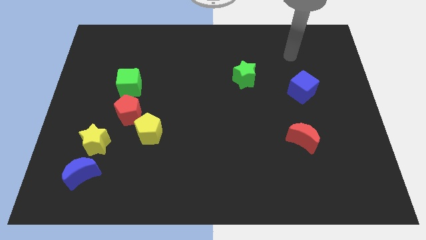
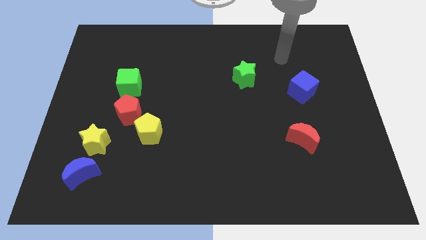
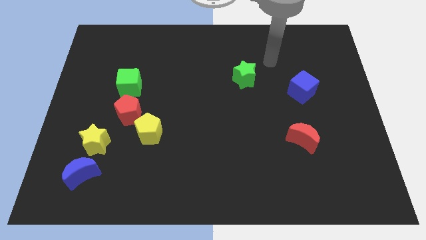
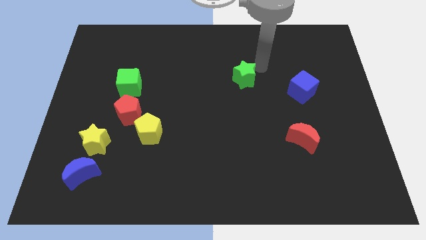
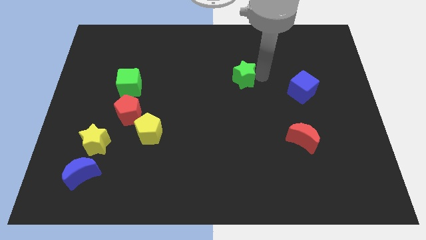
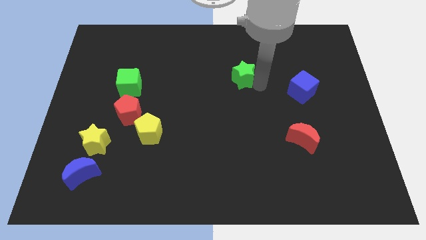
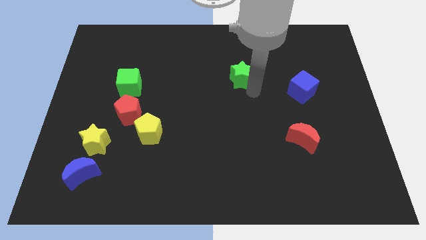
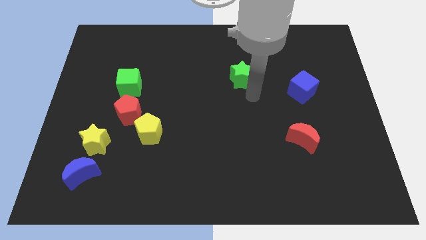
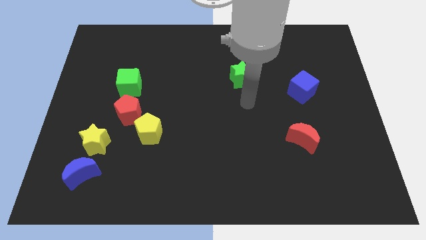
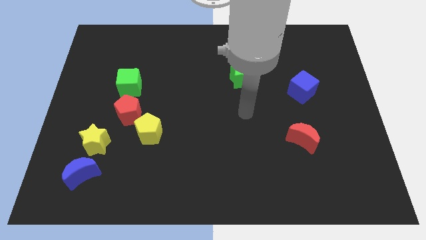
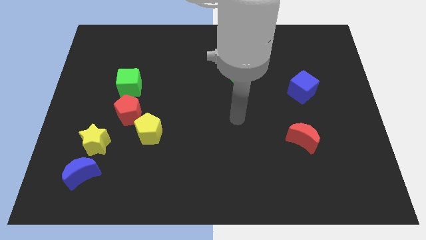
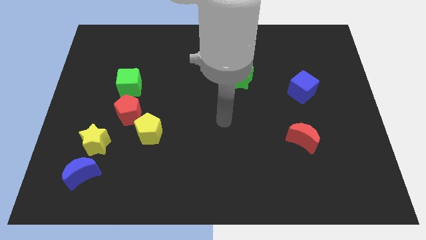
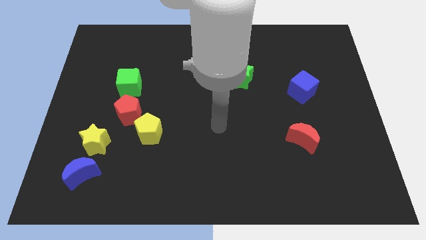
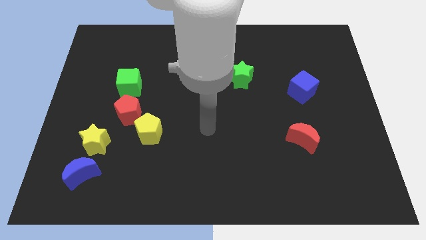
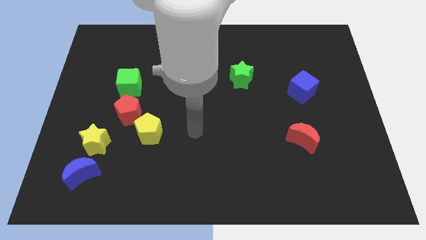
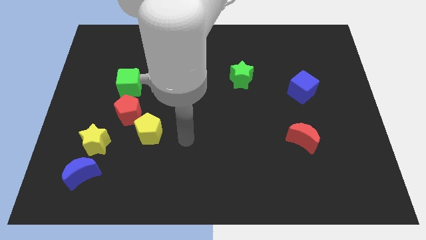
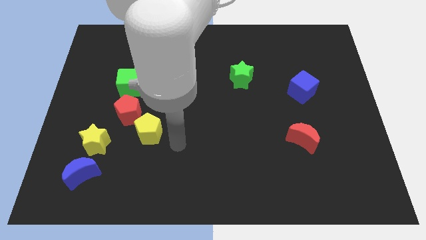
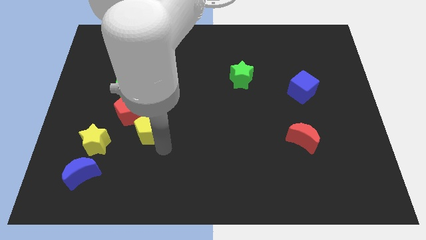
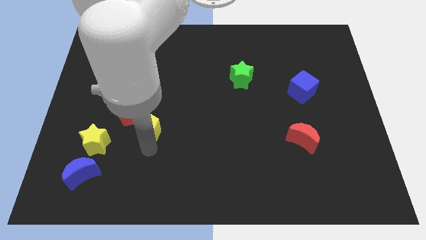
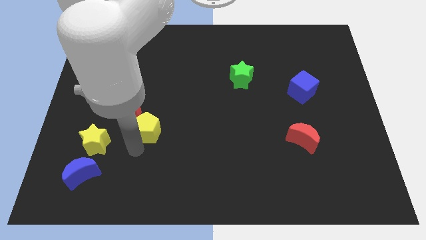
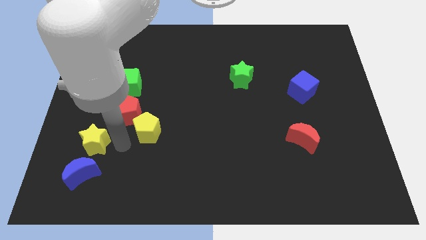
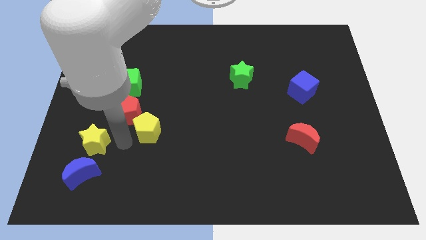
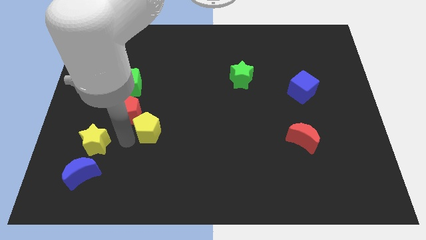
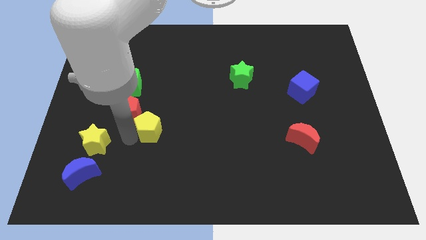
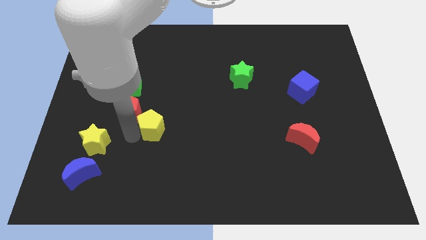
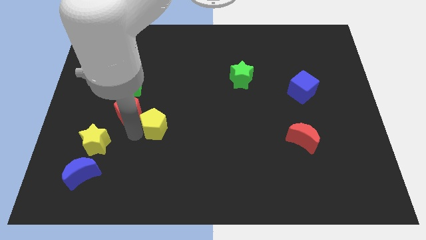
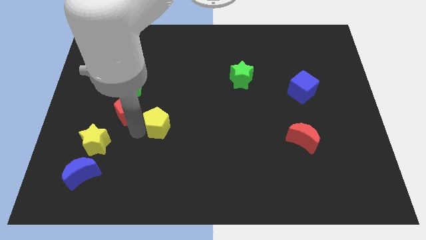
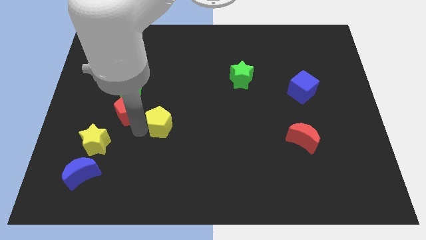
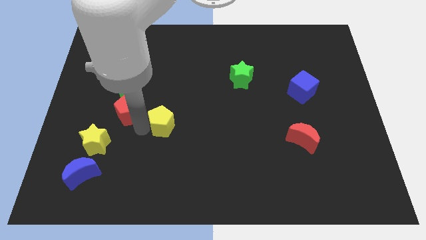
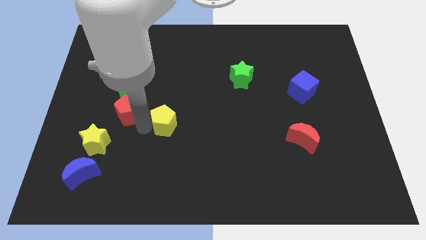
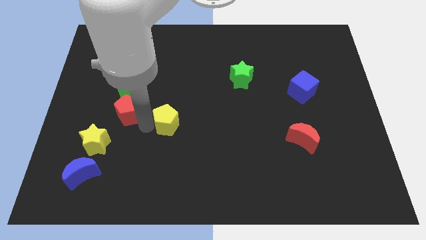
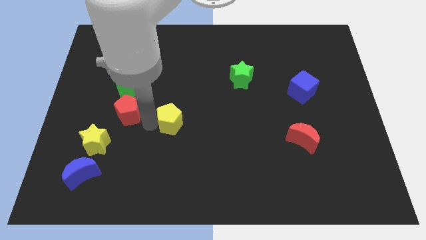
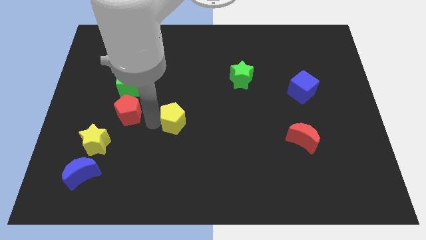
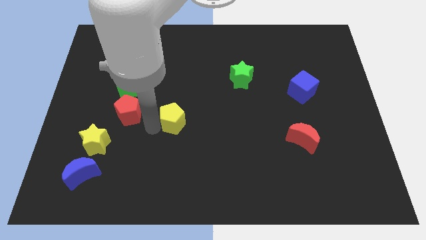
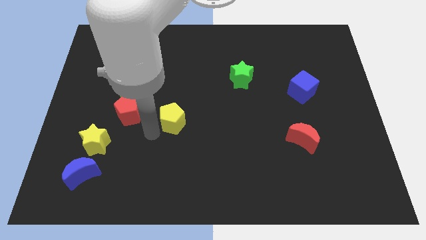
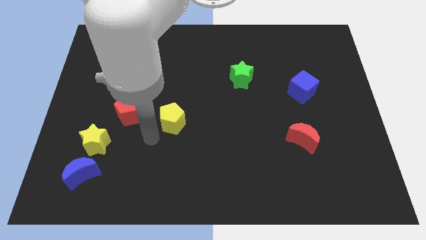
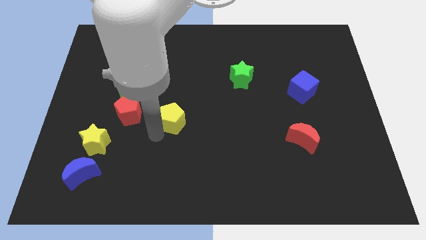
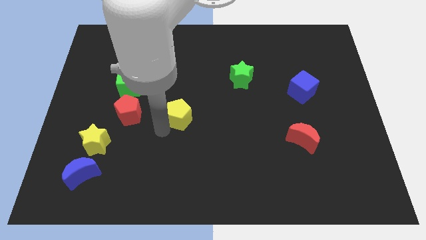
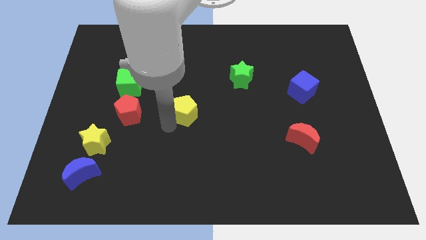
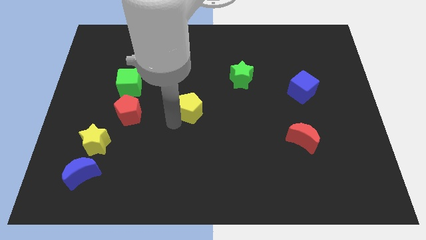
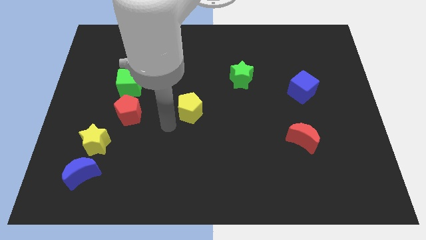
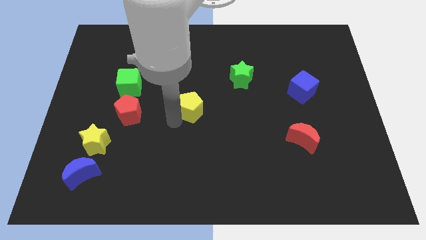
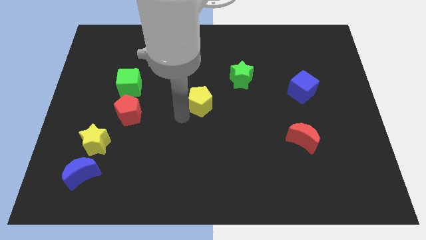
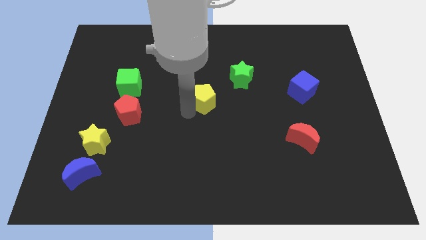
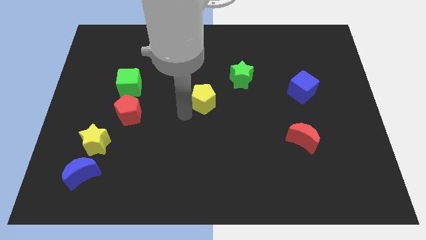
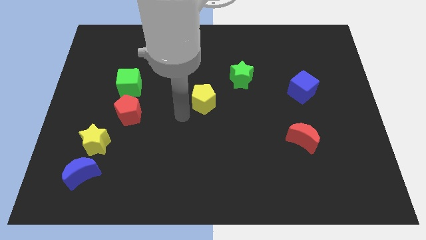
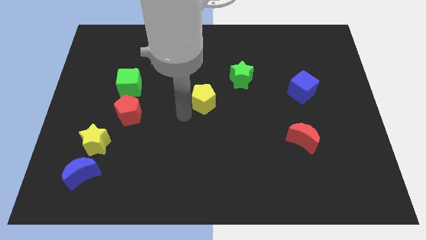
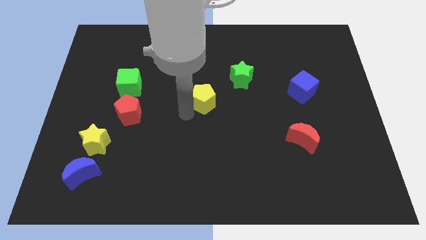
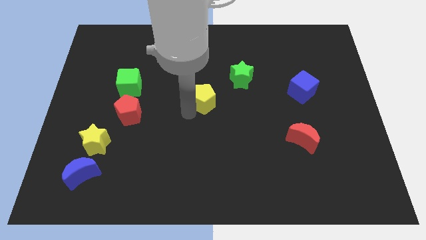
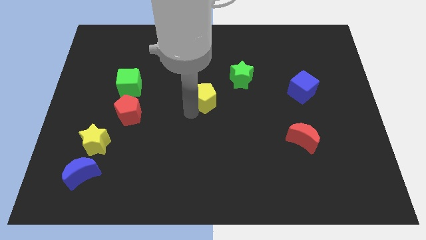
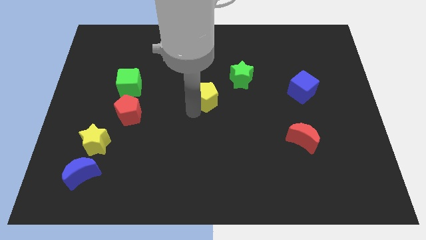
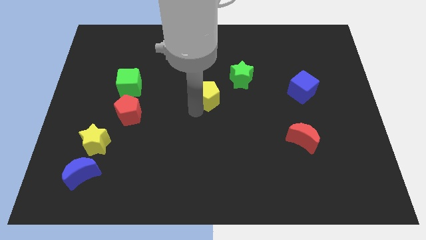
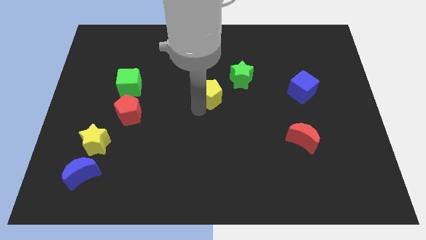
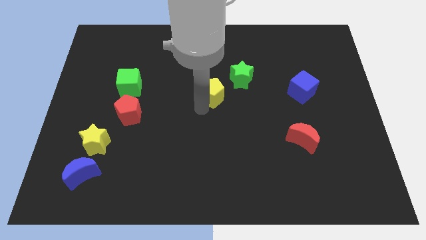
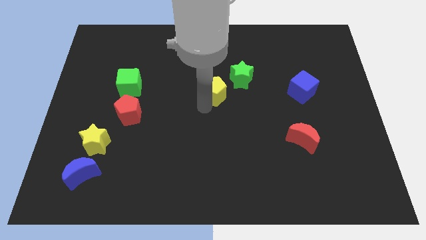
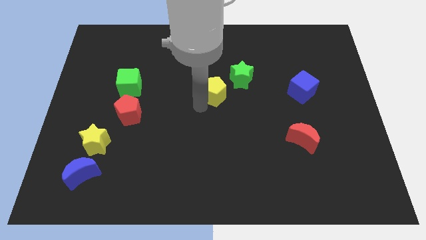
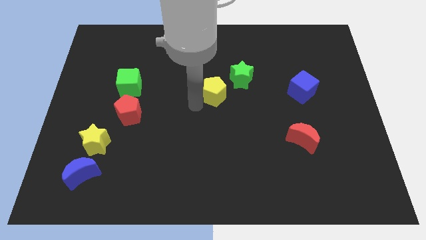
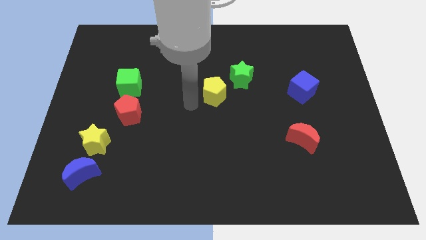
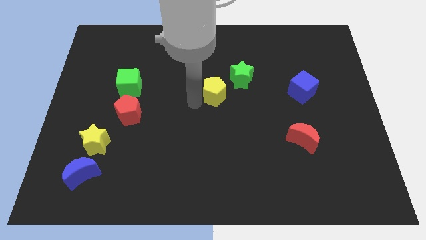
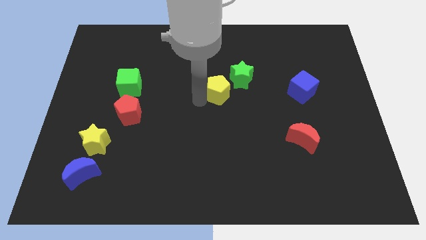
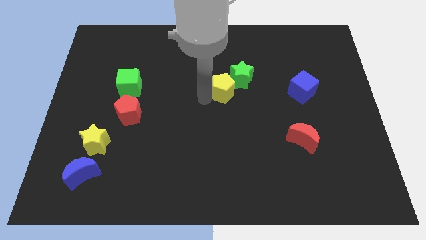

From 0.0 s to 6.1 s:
slide the yellow pentagon towards the green star
